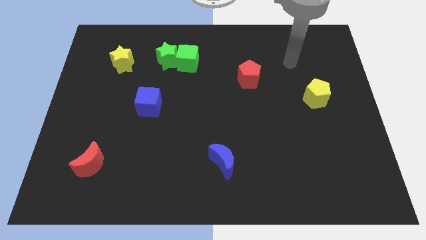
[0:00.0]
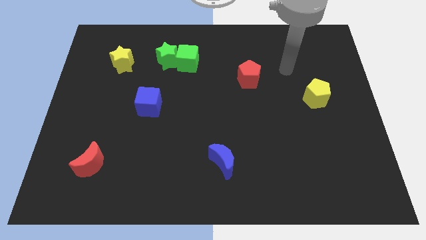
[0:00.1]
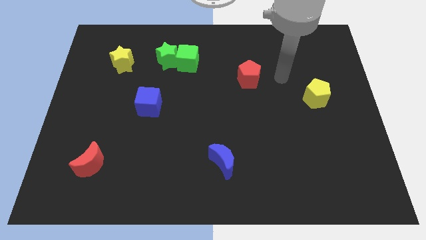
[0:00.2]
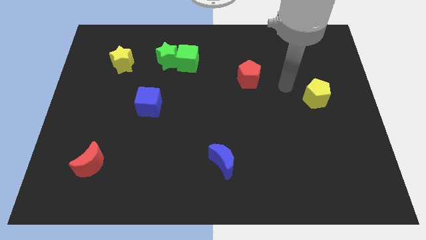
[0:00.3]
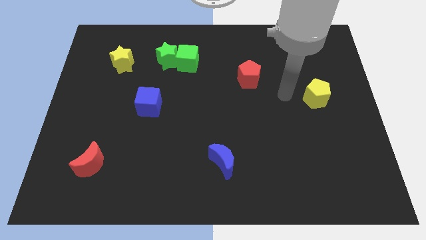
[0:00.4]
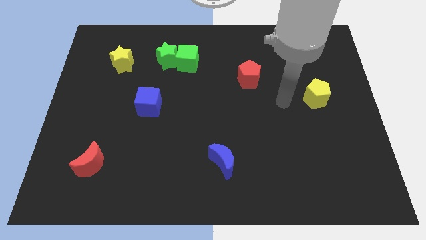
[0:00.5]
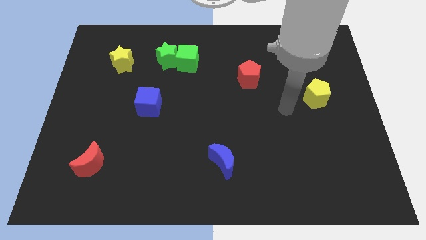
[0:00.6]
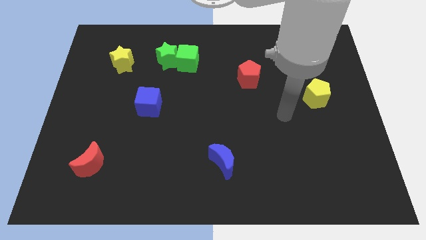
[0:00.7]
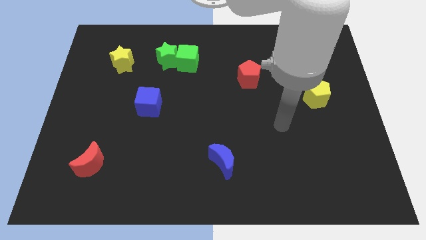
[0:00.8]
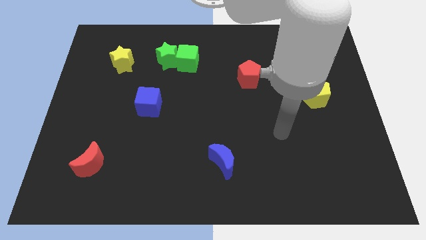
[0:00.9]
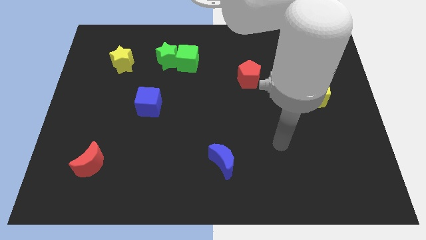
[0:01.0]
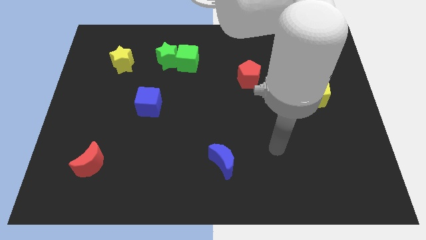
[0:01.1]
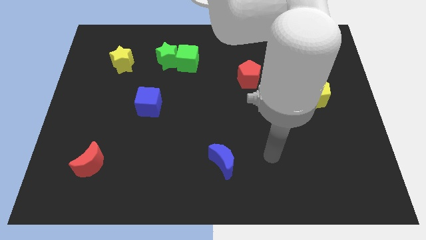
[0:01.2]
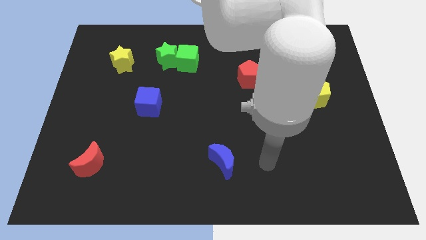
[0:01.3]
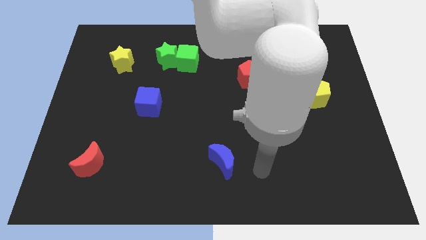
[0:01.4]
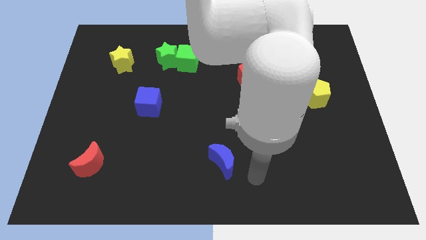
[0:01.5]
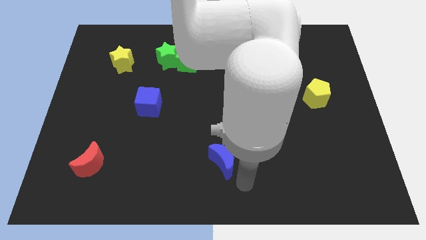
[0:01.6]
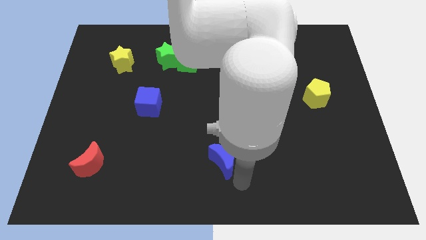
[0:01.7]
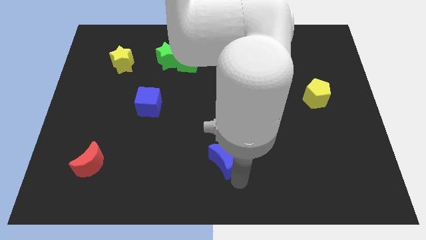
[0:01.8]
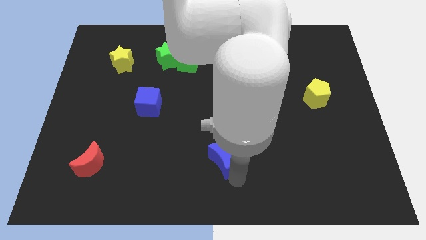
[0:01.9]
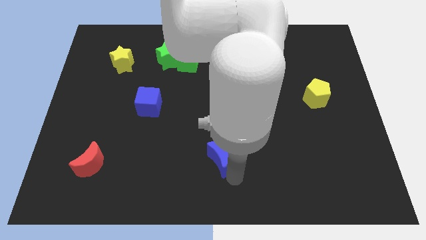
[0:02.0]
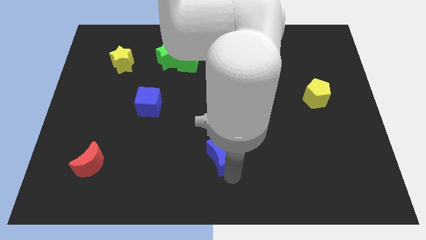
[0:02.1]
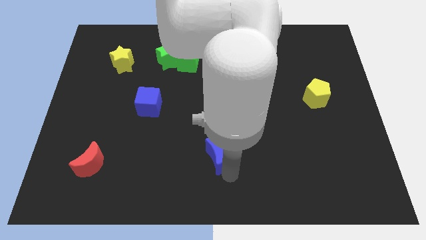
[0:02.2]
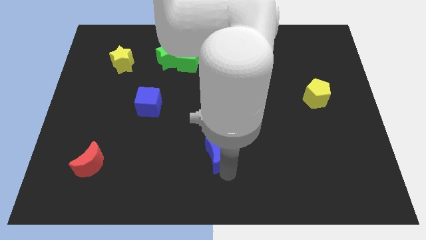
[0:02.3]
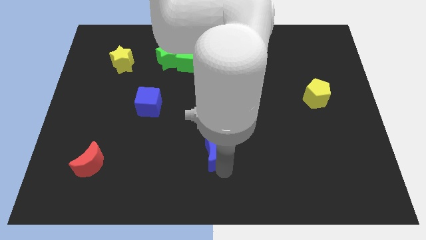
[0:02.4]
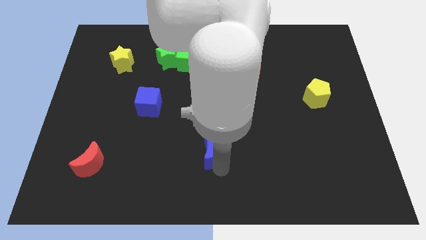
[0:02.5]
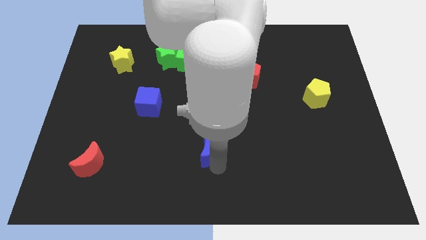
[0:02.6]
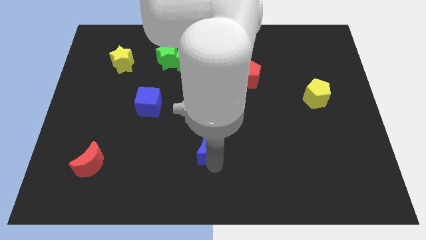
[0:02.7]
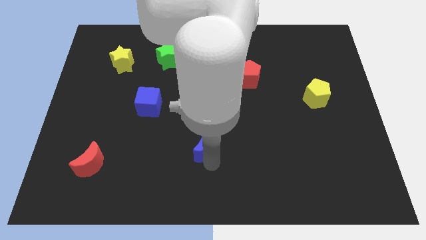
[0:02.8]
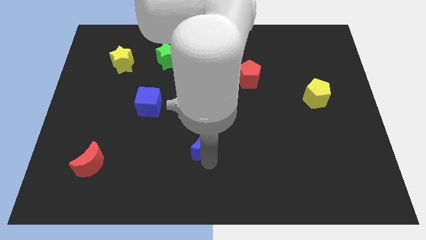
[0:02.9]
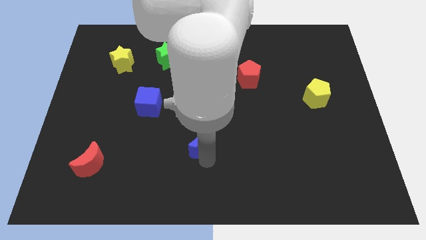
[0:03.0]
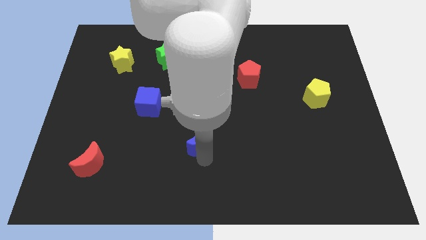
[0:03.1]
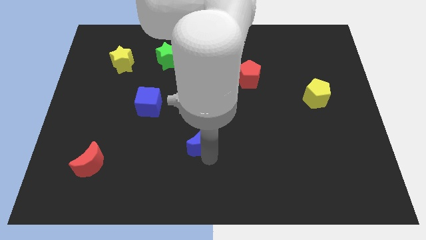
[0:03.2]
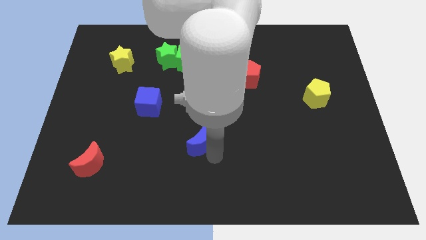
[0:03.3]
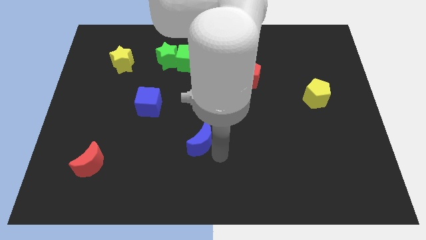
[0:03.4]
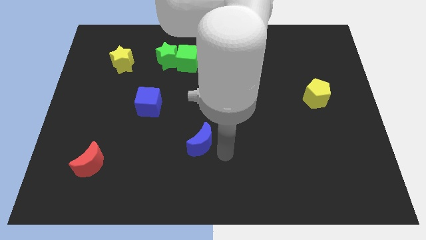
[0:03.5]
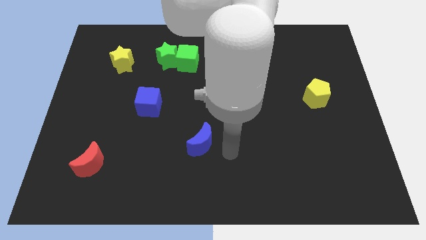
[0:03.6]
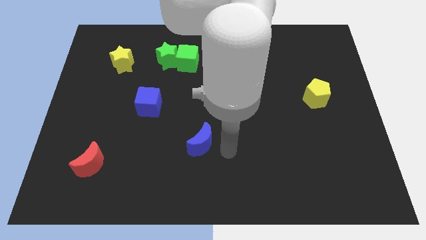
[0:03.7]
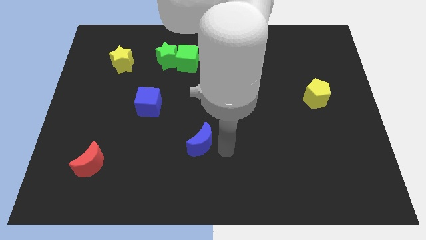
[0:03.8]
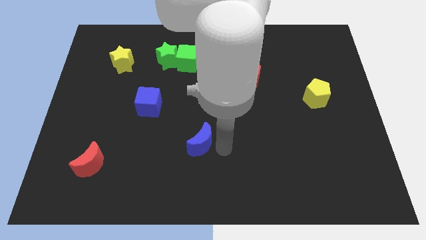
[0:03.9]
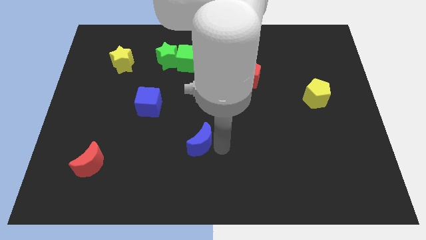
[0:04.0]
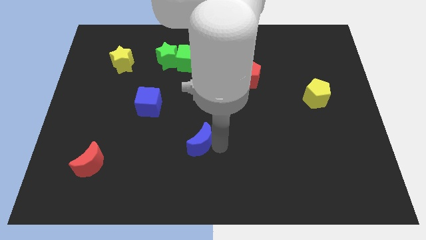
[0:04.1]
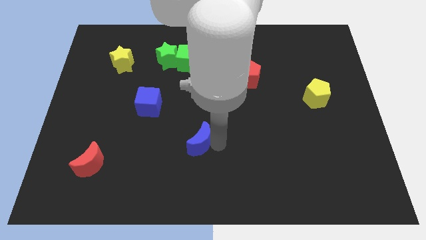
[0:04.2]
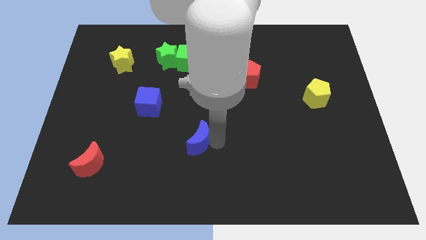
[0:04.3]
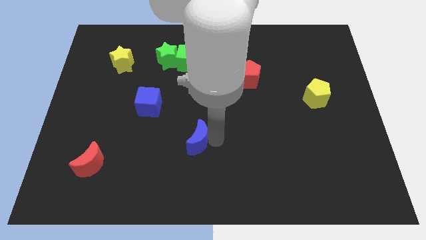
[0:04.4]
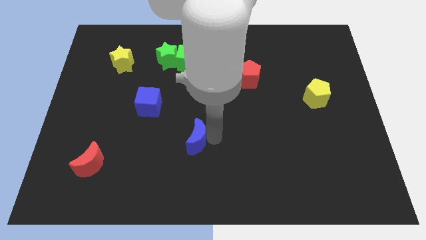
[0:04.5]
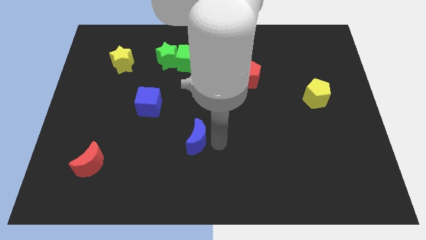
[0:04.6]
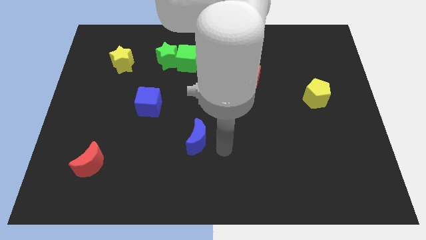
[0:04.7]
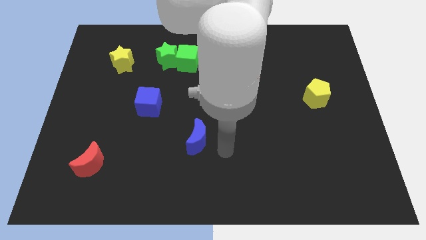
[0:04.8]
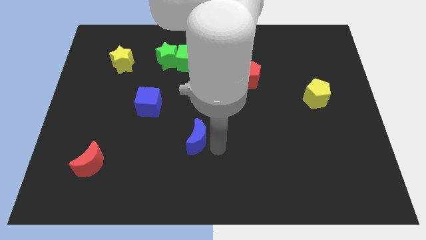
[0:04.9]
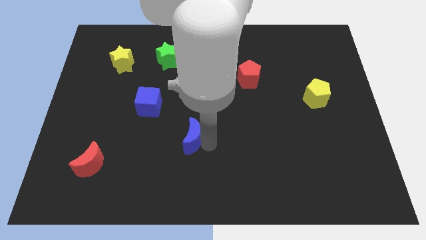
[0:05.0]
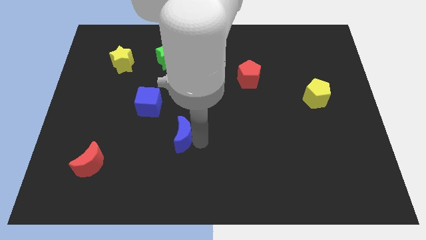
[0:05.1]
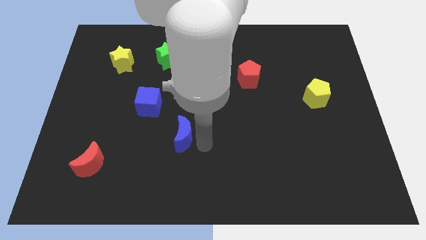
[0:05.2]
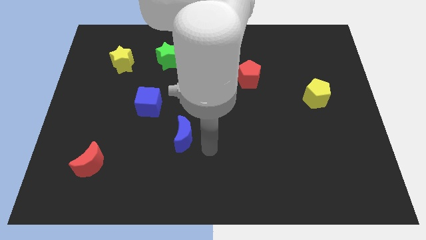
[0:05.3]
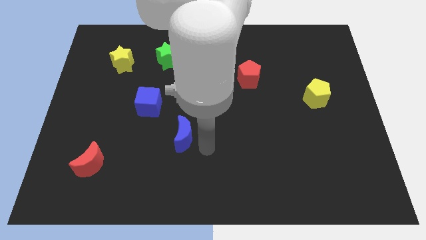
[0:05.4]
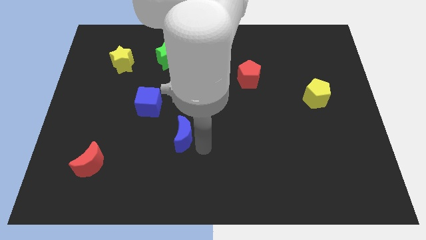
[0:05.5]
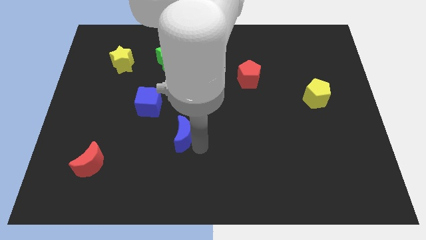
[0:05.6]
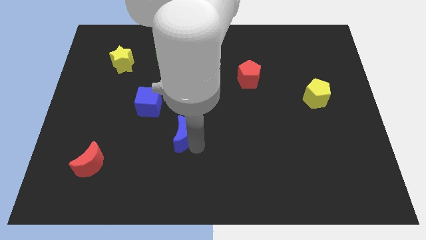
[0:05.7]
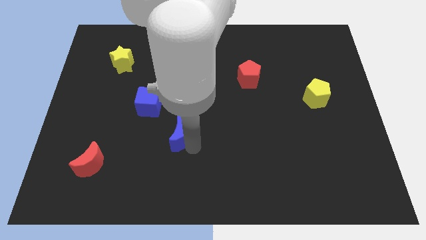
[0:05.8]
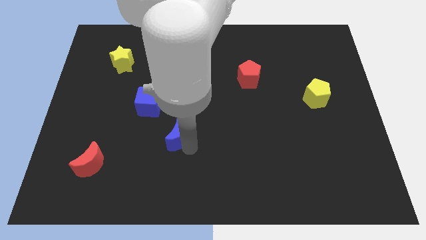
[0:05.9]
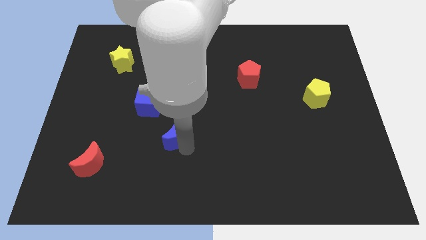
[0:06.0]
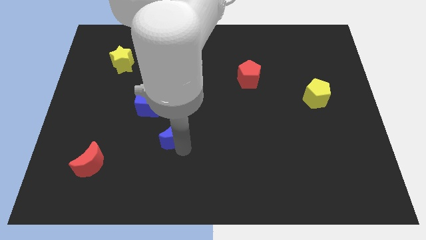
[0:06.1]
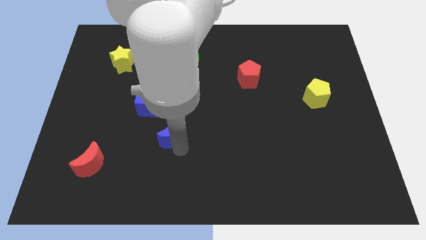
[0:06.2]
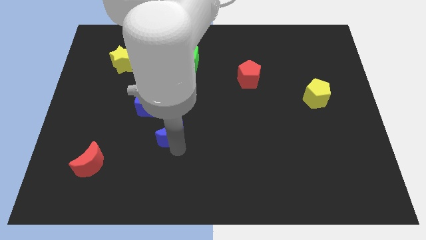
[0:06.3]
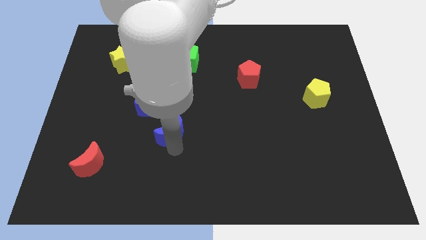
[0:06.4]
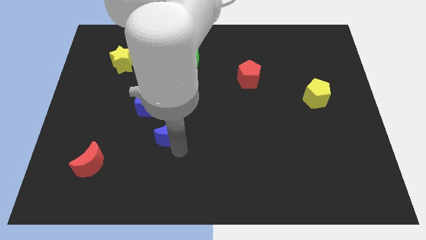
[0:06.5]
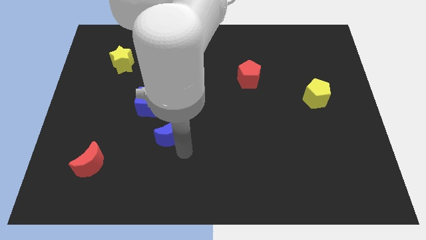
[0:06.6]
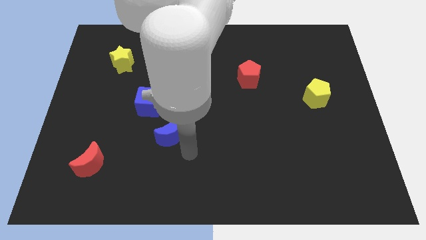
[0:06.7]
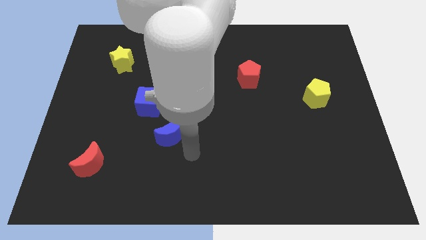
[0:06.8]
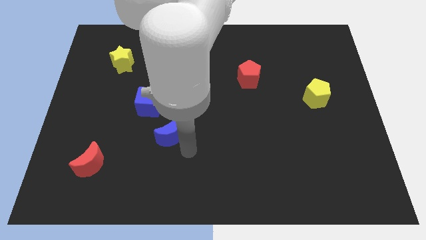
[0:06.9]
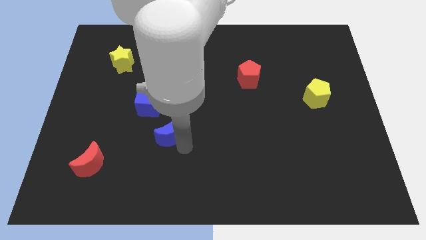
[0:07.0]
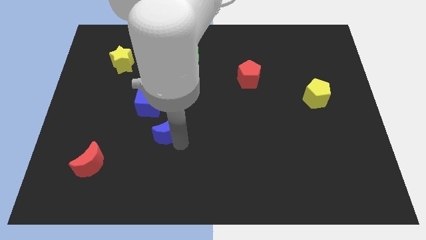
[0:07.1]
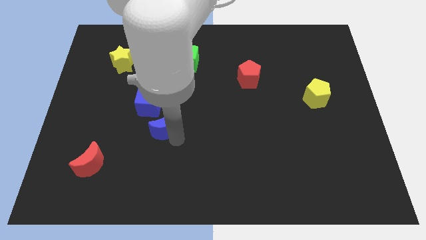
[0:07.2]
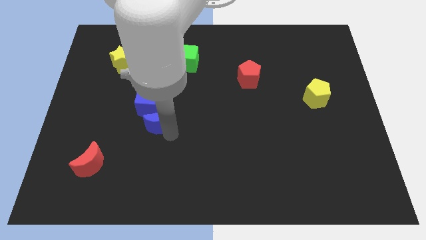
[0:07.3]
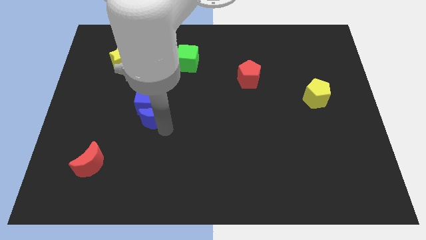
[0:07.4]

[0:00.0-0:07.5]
move the blue moon next to the blue cube

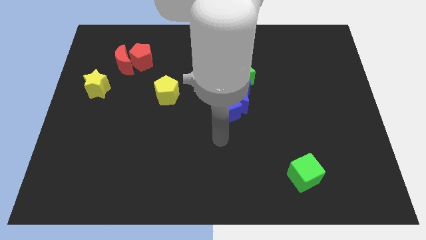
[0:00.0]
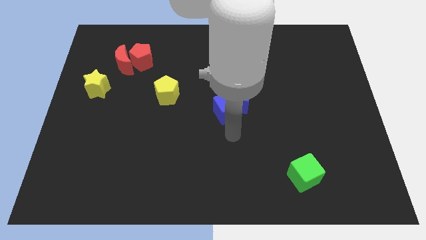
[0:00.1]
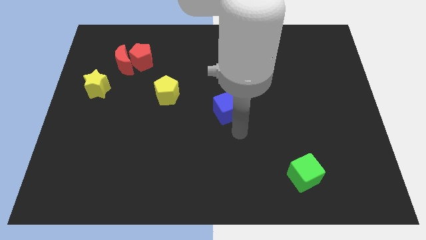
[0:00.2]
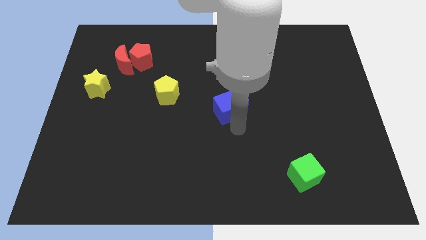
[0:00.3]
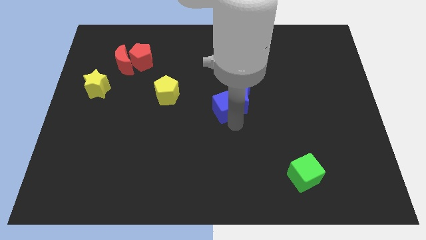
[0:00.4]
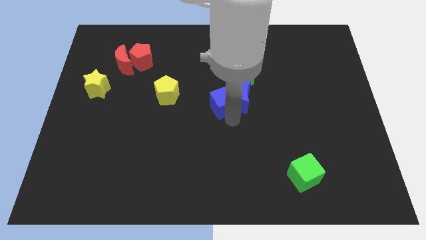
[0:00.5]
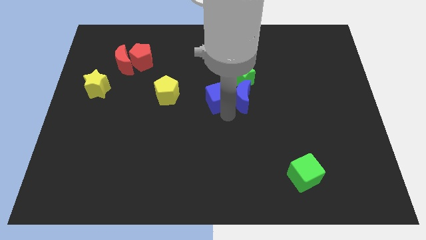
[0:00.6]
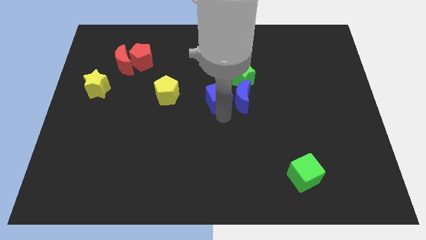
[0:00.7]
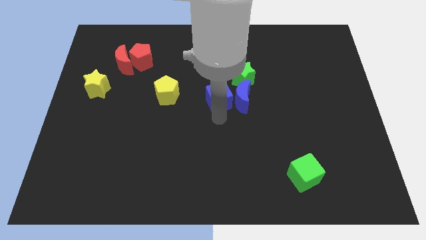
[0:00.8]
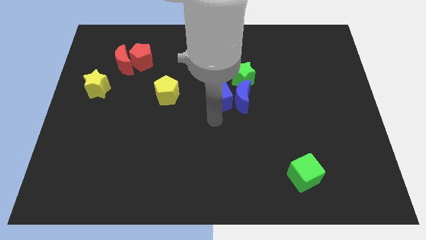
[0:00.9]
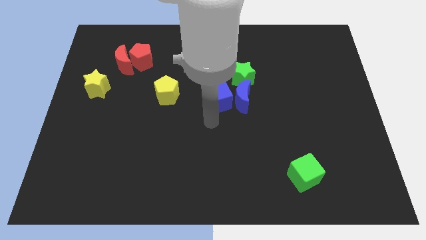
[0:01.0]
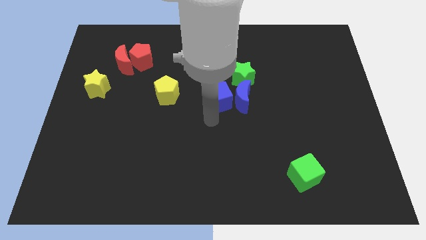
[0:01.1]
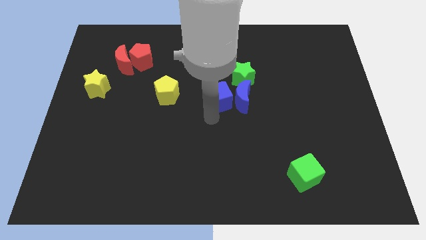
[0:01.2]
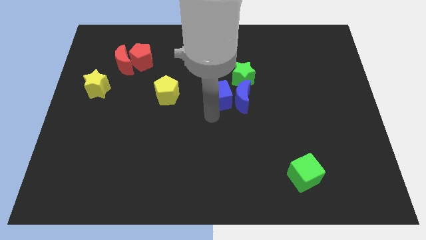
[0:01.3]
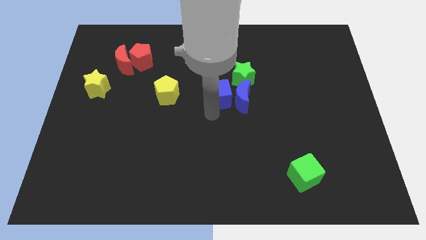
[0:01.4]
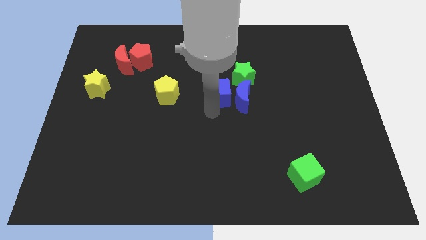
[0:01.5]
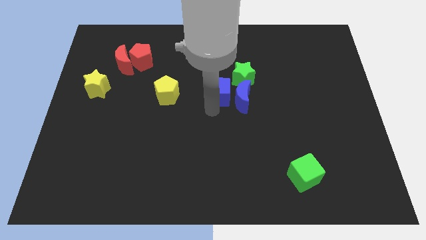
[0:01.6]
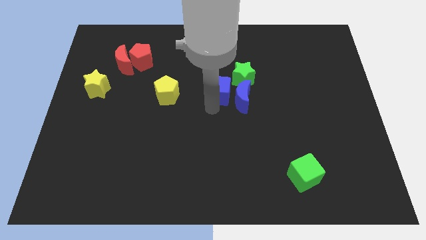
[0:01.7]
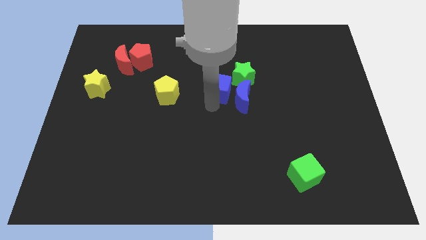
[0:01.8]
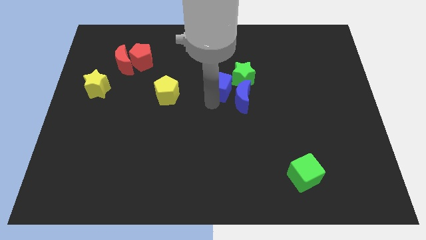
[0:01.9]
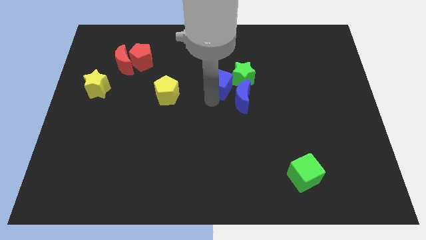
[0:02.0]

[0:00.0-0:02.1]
slide the blue cube towards the green star
